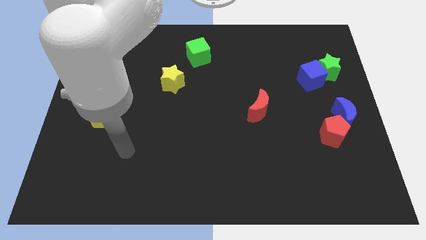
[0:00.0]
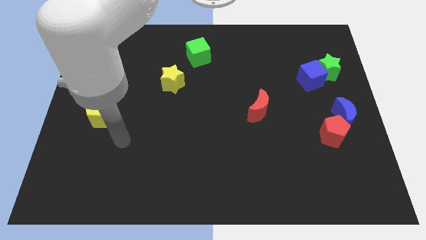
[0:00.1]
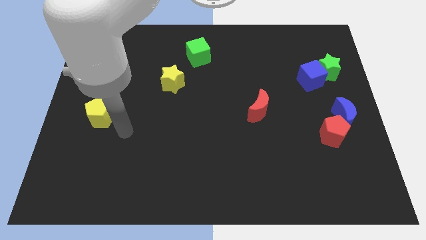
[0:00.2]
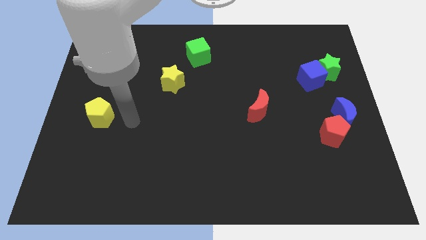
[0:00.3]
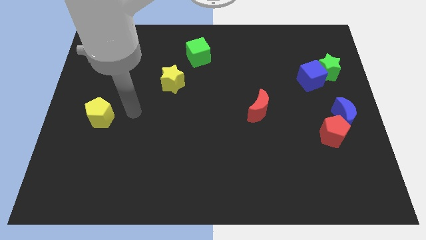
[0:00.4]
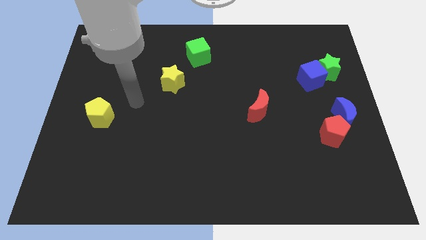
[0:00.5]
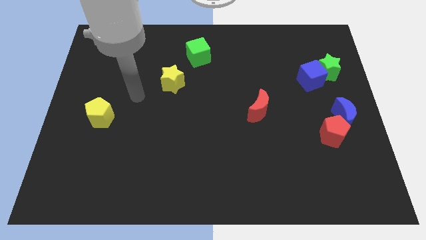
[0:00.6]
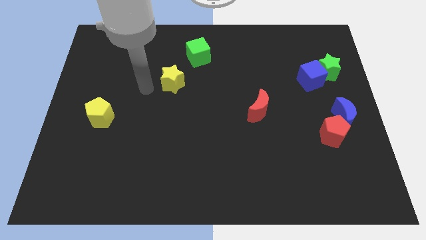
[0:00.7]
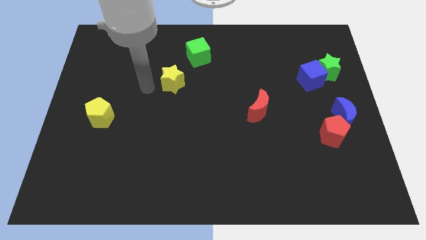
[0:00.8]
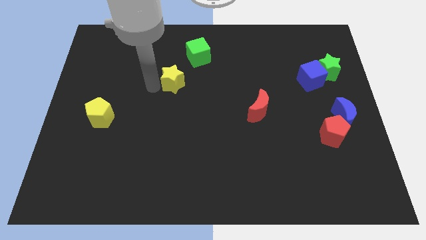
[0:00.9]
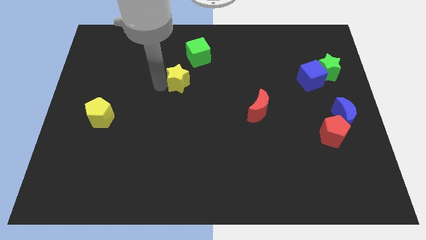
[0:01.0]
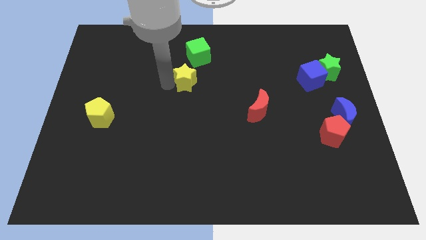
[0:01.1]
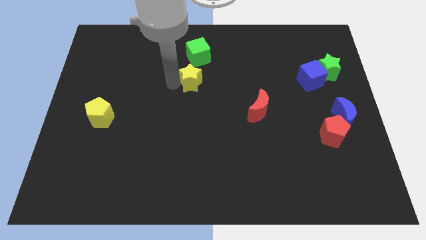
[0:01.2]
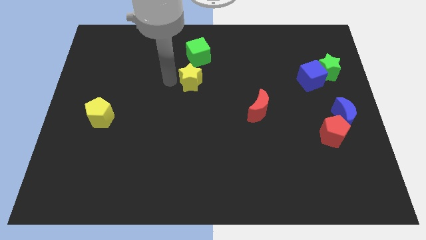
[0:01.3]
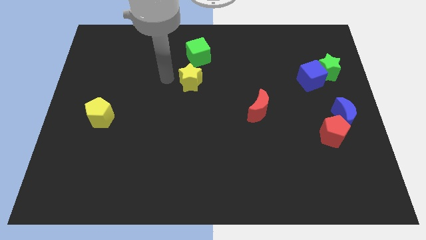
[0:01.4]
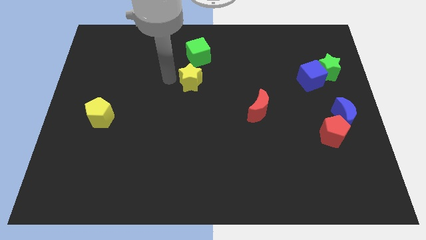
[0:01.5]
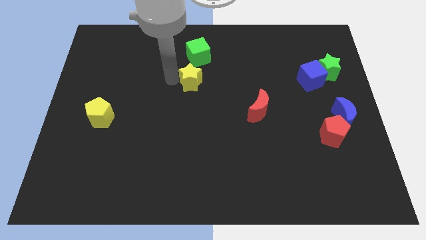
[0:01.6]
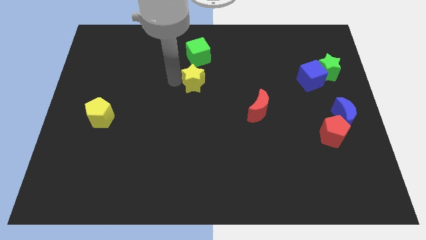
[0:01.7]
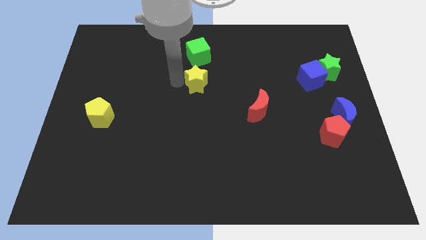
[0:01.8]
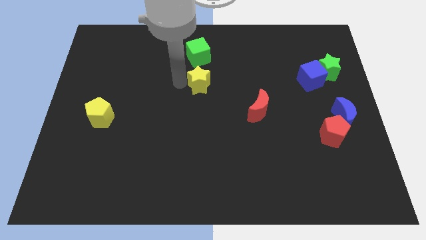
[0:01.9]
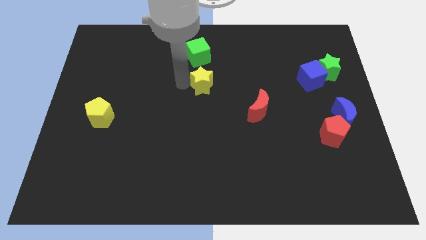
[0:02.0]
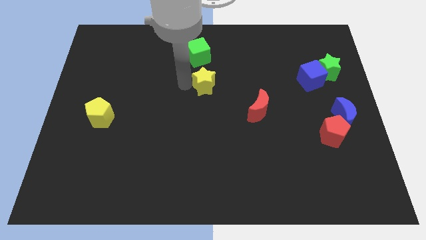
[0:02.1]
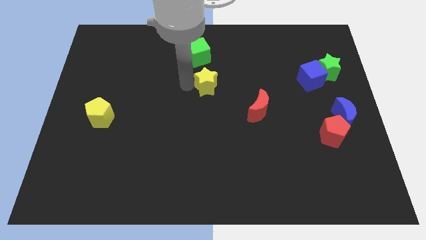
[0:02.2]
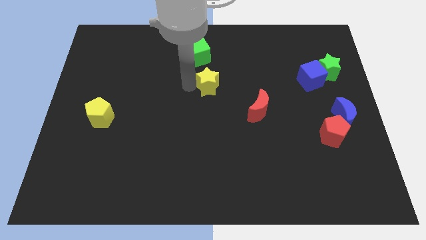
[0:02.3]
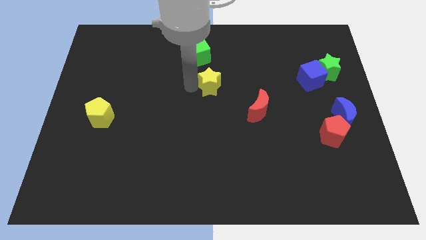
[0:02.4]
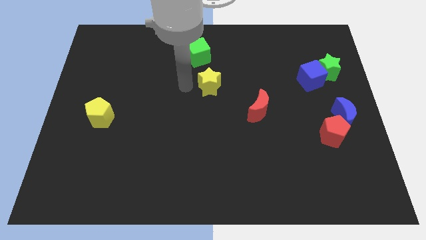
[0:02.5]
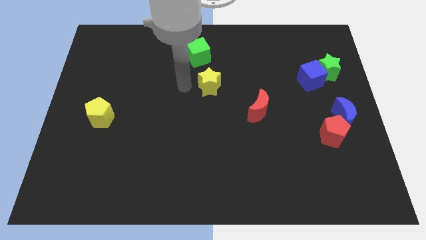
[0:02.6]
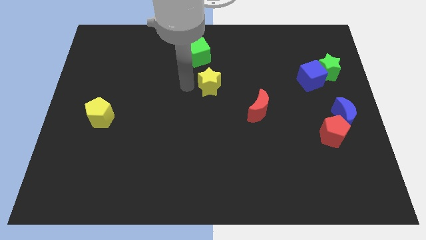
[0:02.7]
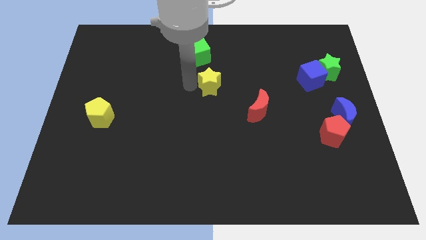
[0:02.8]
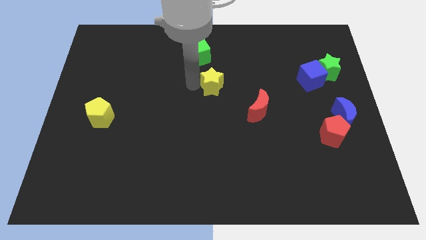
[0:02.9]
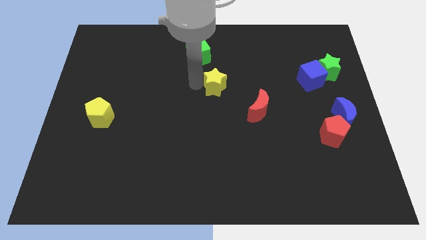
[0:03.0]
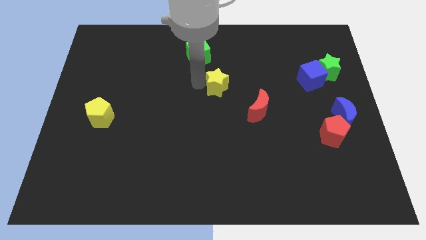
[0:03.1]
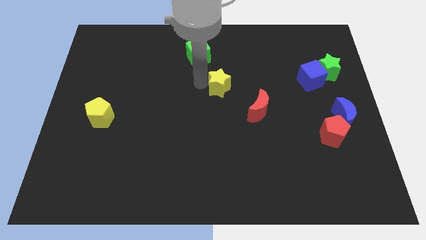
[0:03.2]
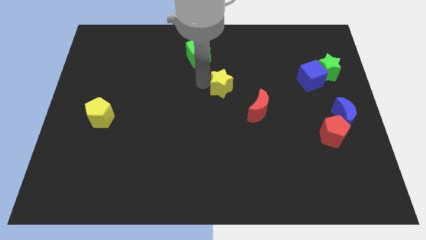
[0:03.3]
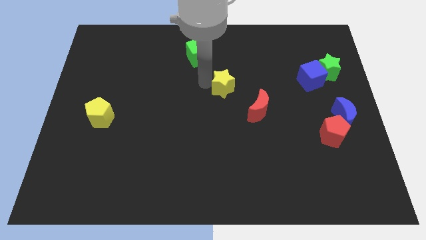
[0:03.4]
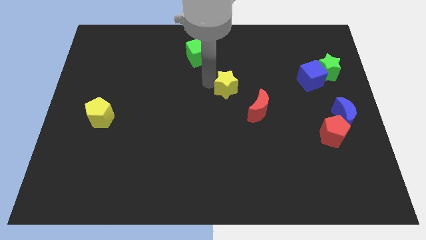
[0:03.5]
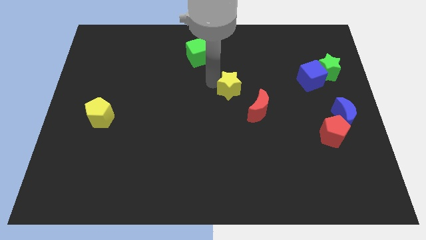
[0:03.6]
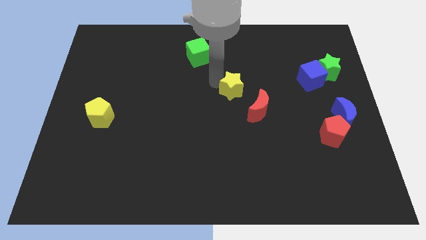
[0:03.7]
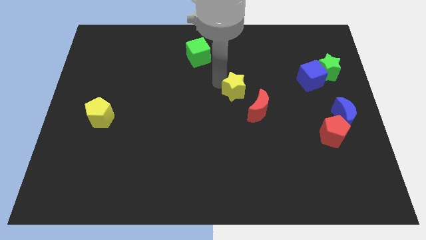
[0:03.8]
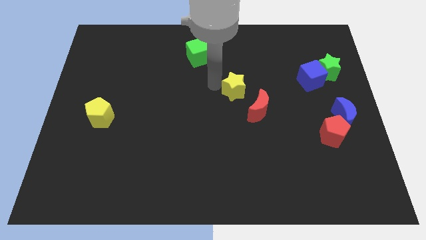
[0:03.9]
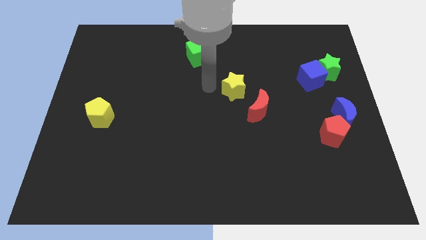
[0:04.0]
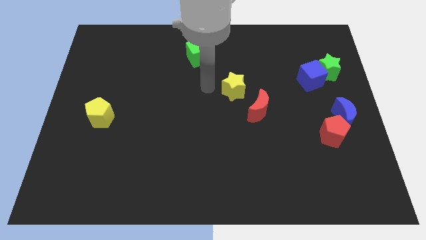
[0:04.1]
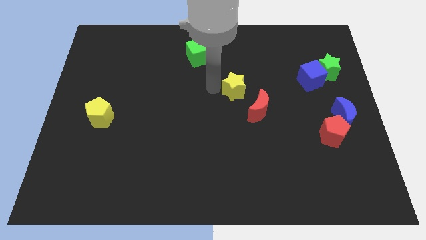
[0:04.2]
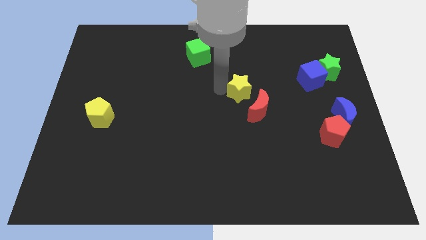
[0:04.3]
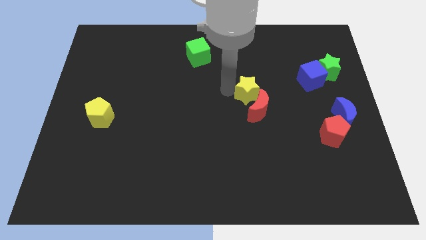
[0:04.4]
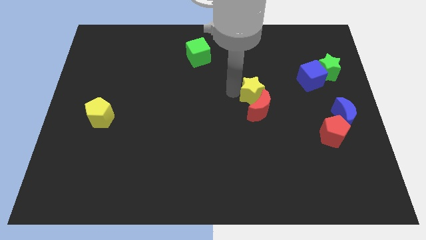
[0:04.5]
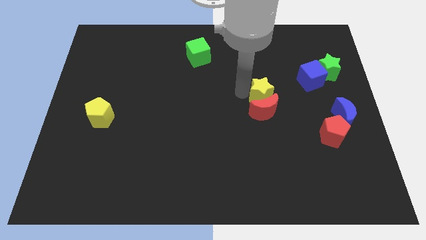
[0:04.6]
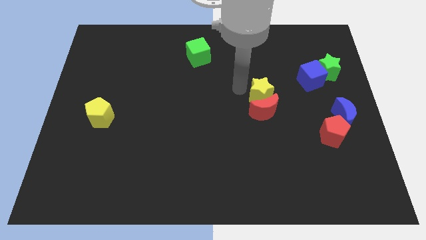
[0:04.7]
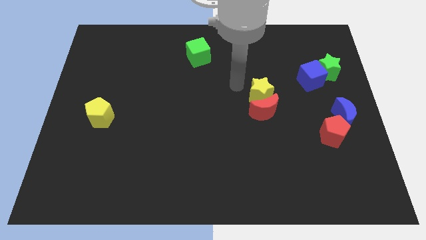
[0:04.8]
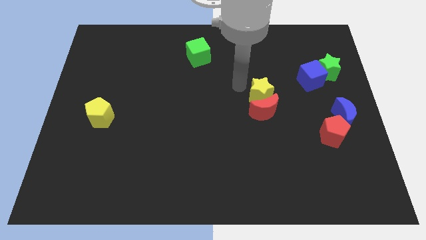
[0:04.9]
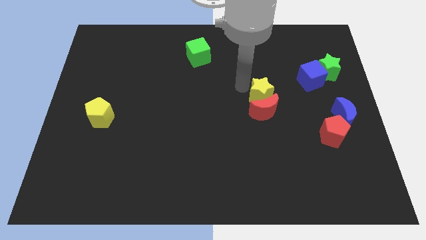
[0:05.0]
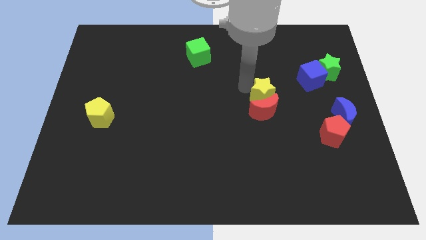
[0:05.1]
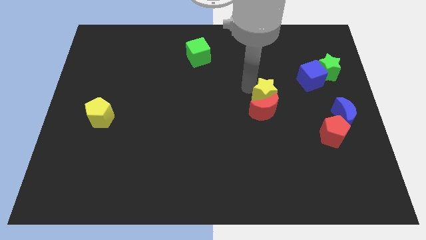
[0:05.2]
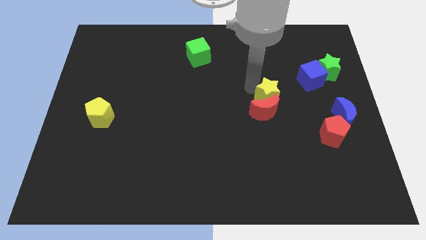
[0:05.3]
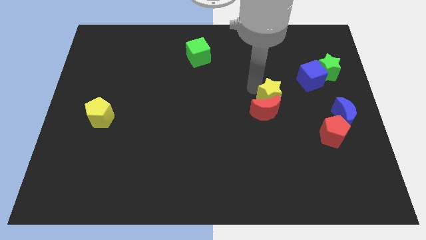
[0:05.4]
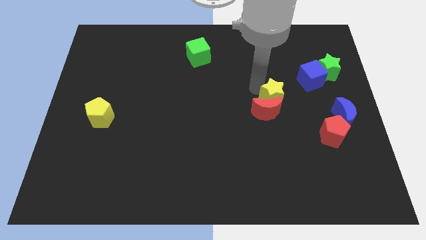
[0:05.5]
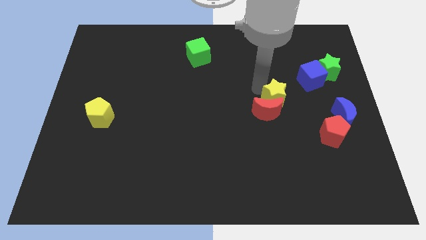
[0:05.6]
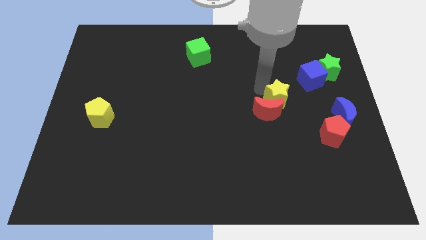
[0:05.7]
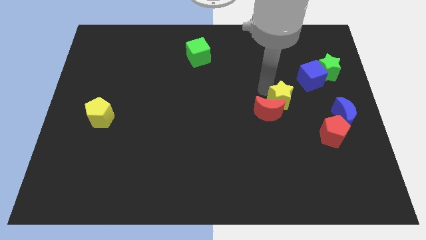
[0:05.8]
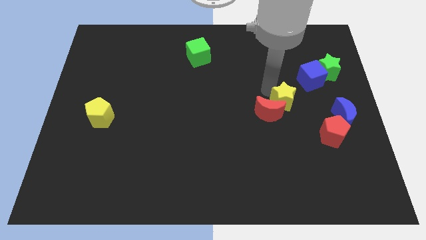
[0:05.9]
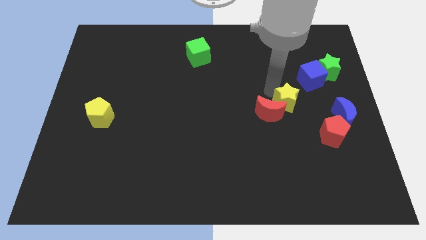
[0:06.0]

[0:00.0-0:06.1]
move the yellow star to the top left of the red pentagon

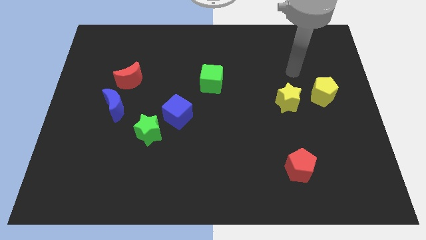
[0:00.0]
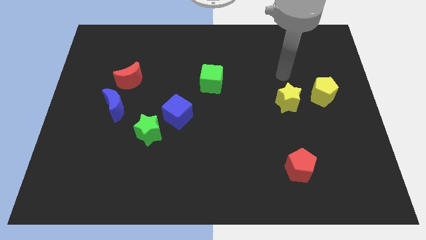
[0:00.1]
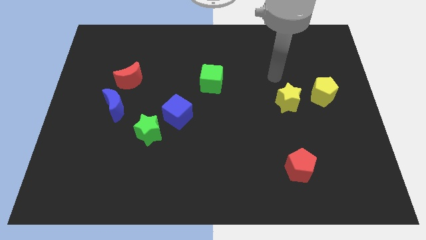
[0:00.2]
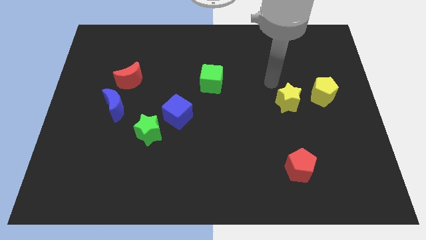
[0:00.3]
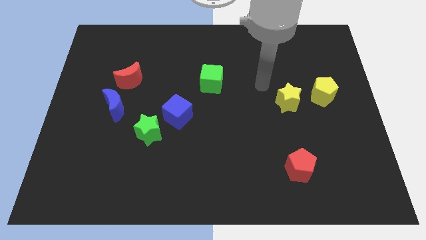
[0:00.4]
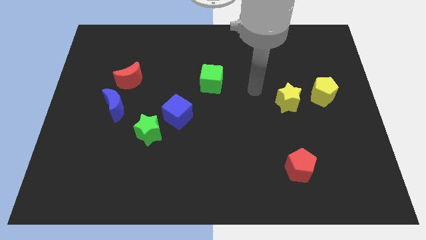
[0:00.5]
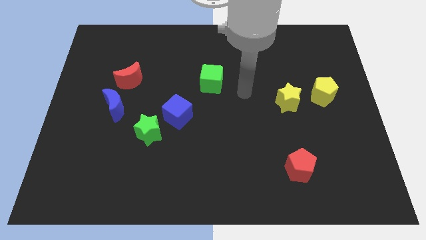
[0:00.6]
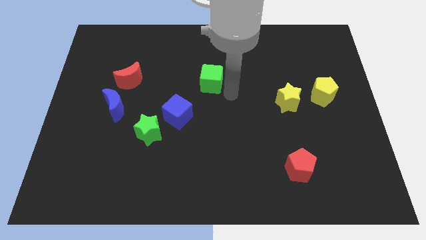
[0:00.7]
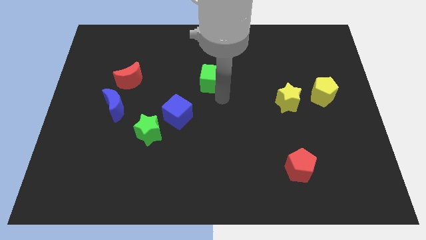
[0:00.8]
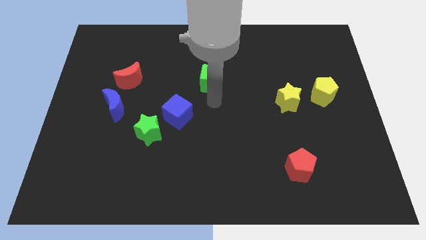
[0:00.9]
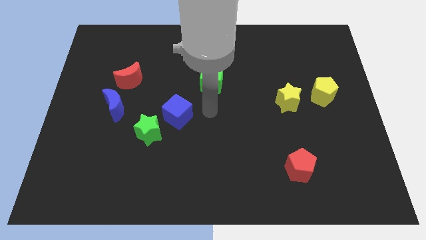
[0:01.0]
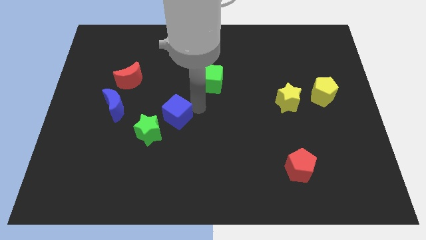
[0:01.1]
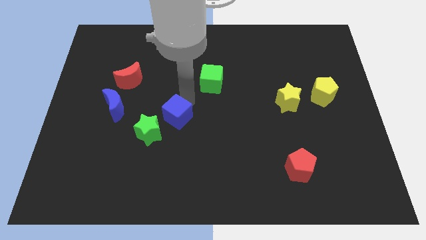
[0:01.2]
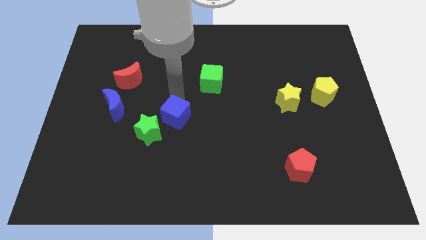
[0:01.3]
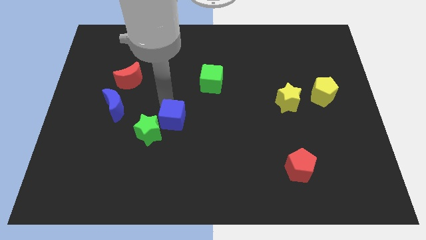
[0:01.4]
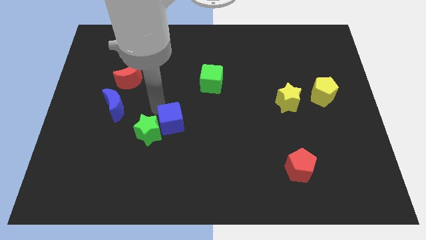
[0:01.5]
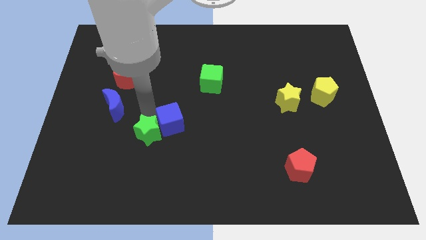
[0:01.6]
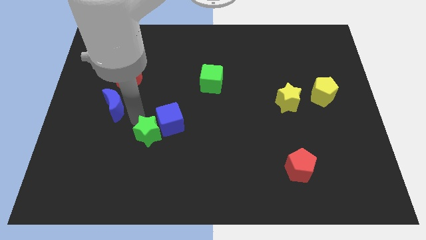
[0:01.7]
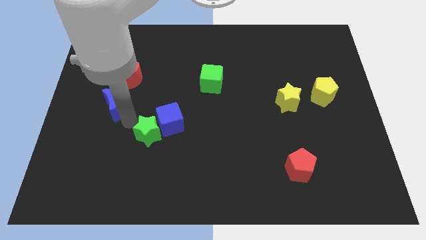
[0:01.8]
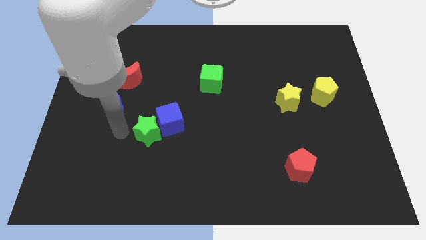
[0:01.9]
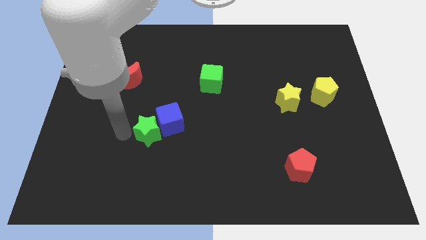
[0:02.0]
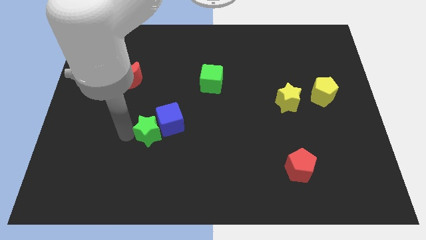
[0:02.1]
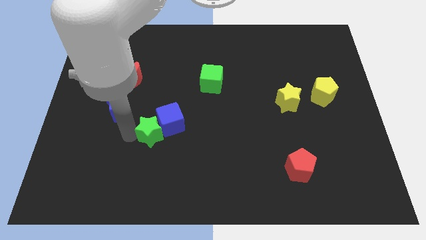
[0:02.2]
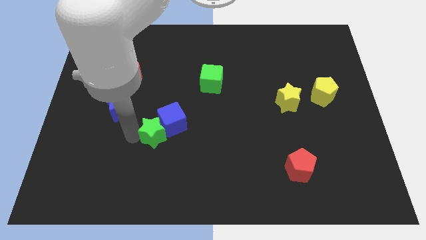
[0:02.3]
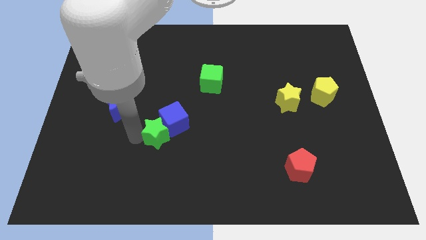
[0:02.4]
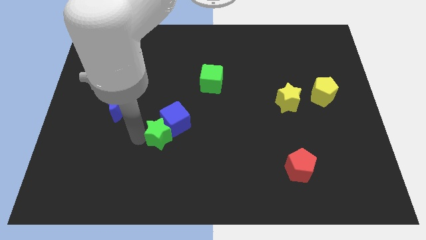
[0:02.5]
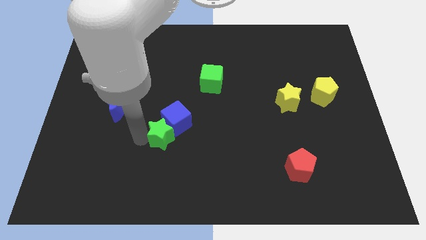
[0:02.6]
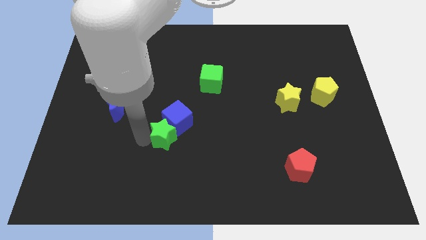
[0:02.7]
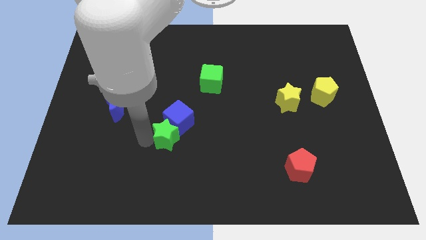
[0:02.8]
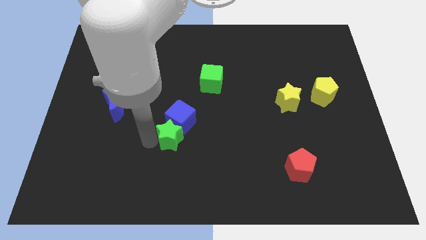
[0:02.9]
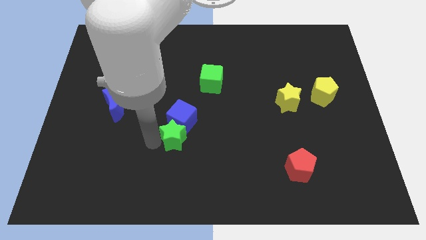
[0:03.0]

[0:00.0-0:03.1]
move the green star to the bottom right of the blue cube
